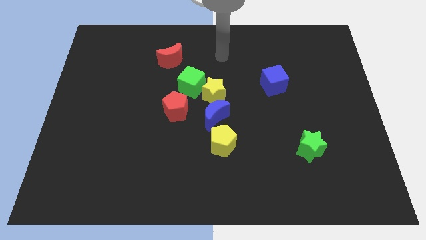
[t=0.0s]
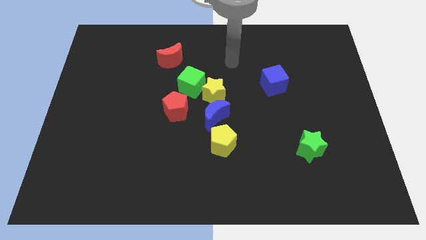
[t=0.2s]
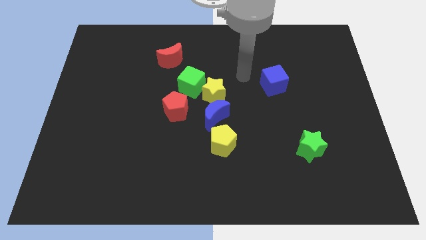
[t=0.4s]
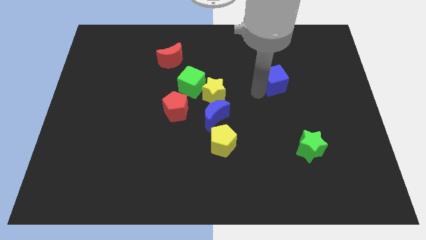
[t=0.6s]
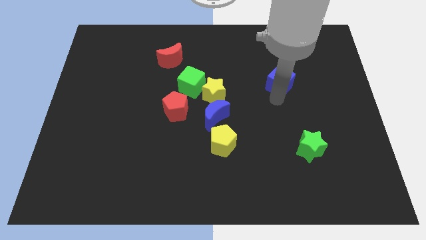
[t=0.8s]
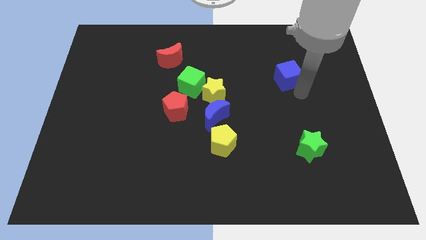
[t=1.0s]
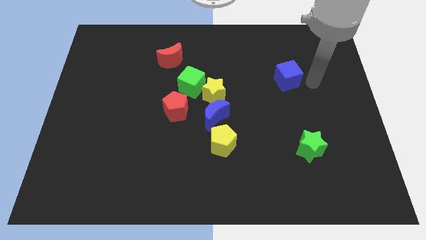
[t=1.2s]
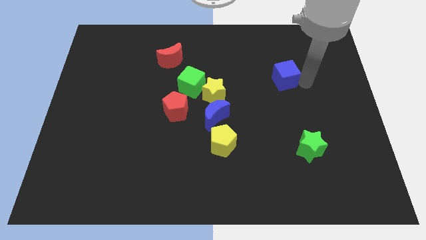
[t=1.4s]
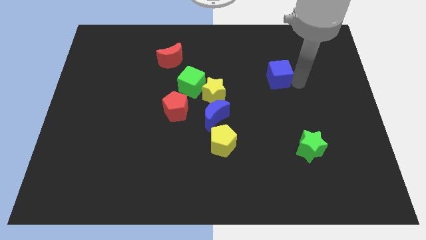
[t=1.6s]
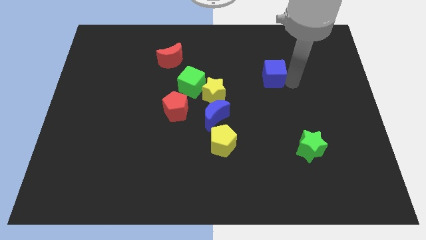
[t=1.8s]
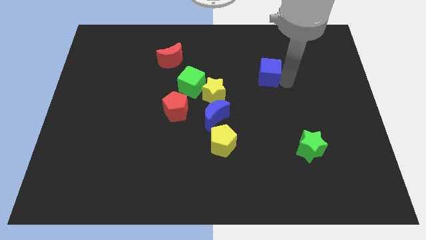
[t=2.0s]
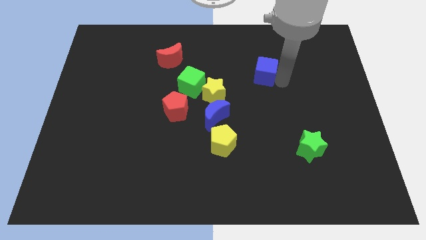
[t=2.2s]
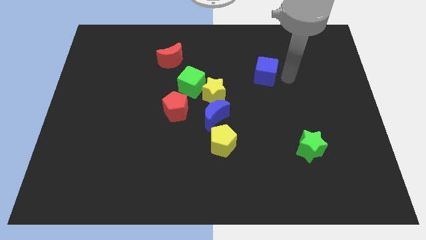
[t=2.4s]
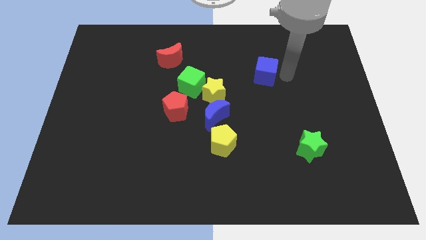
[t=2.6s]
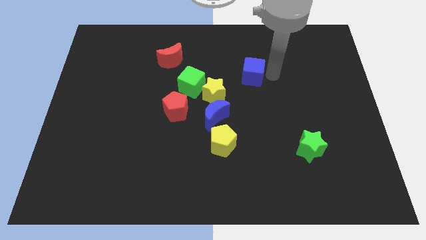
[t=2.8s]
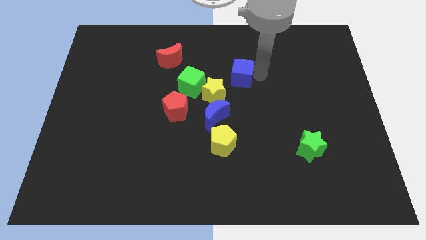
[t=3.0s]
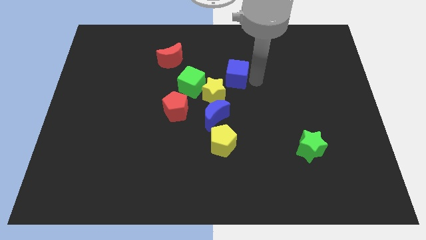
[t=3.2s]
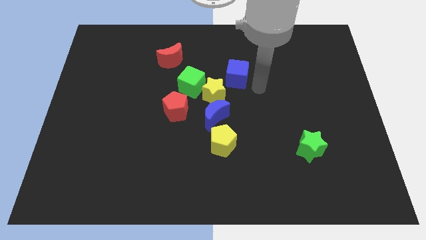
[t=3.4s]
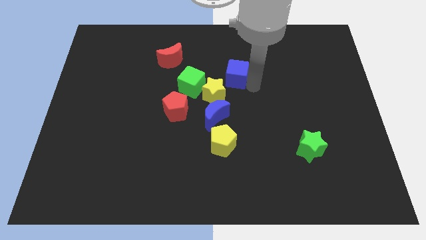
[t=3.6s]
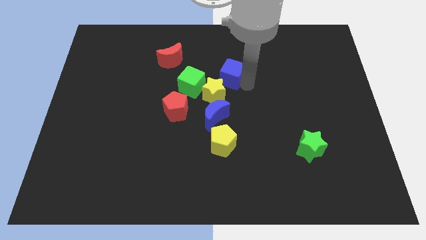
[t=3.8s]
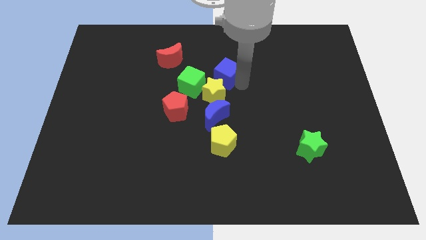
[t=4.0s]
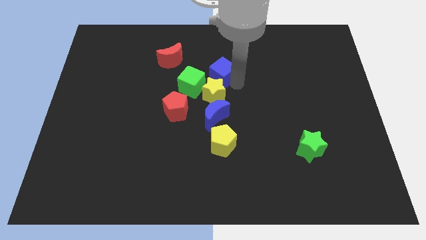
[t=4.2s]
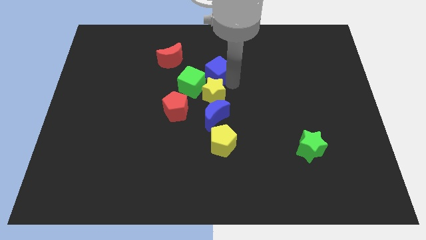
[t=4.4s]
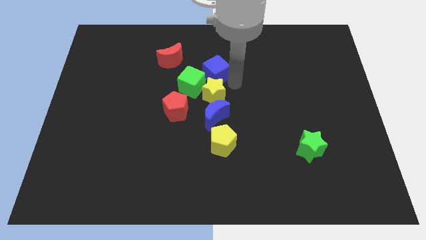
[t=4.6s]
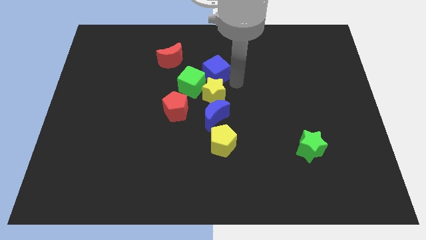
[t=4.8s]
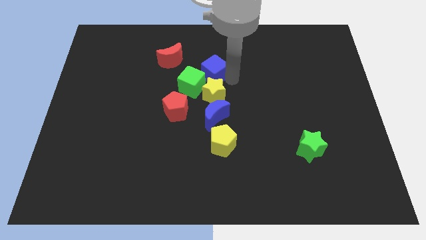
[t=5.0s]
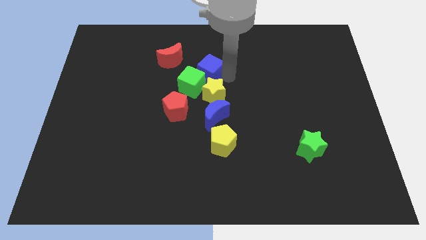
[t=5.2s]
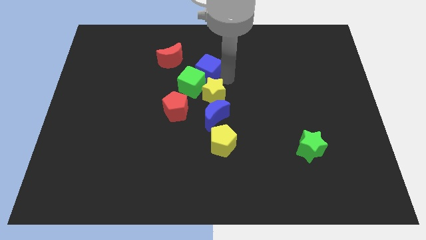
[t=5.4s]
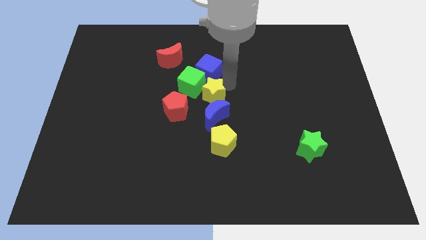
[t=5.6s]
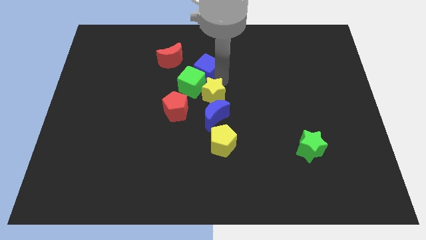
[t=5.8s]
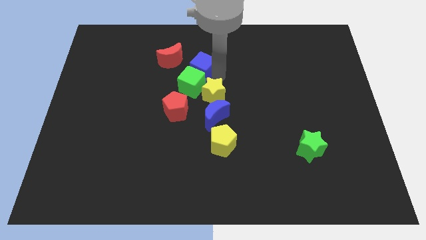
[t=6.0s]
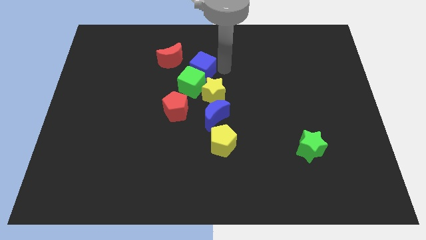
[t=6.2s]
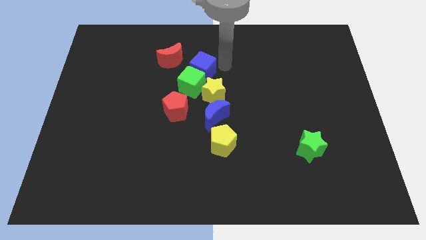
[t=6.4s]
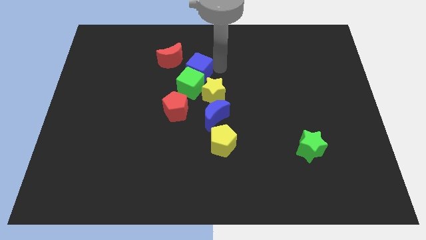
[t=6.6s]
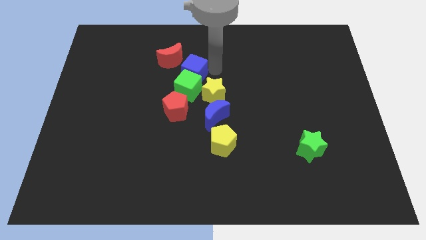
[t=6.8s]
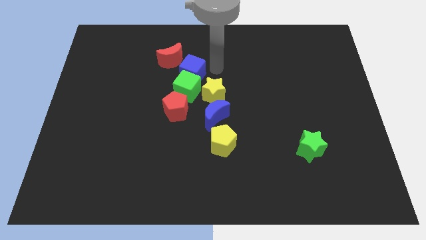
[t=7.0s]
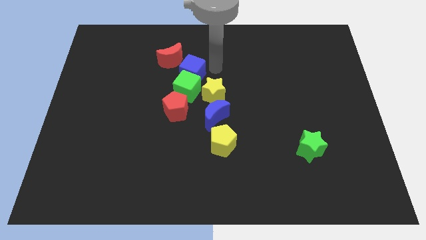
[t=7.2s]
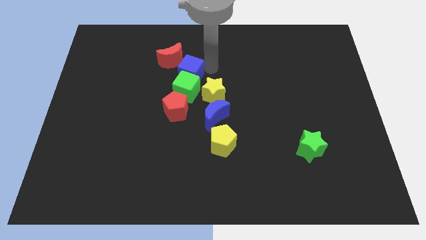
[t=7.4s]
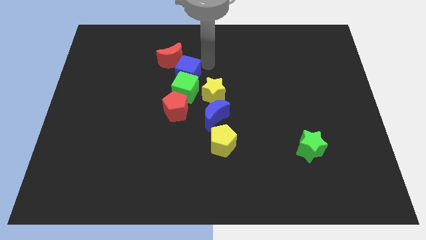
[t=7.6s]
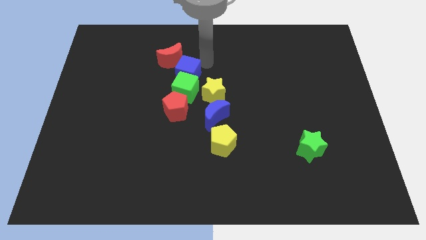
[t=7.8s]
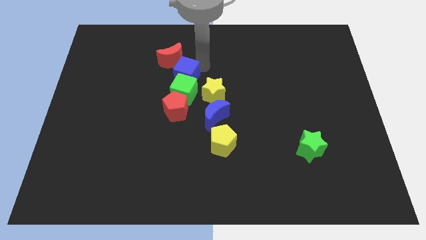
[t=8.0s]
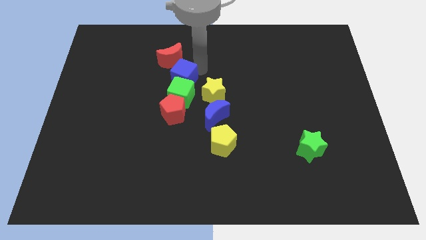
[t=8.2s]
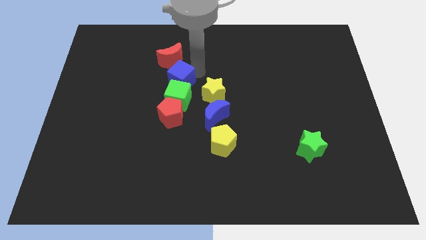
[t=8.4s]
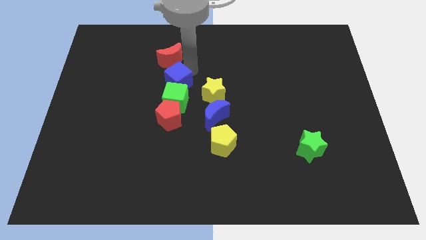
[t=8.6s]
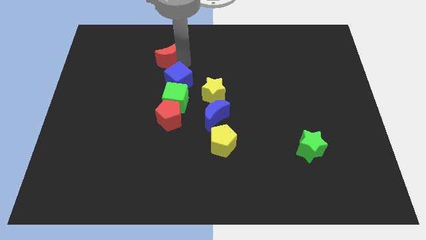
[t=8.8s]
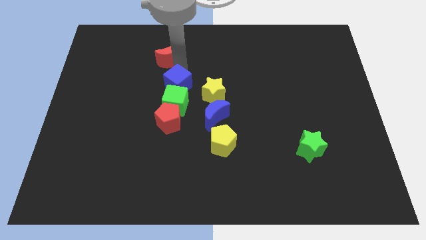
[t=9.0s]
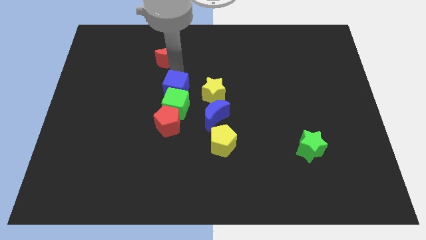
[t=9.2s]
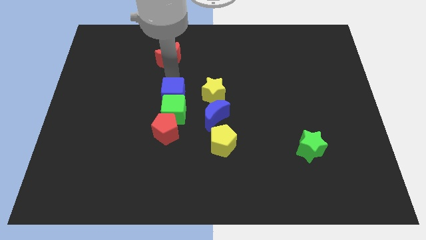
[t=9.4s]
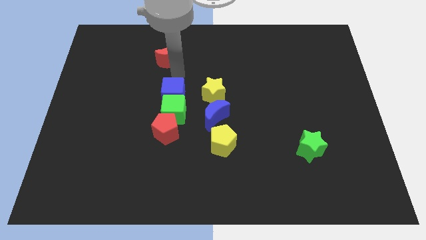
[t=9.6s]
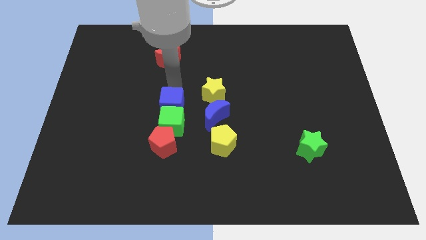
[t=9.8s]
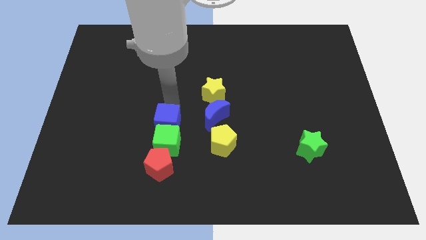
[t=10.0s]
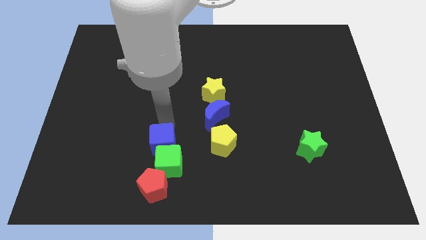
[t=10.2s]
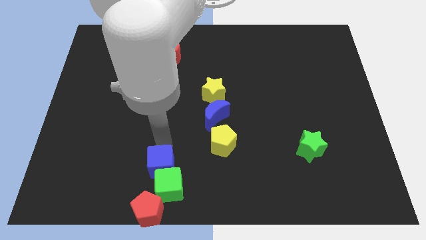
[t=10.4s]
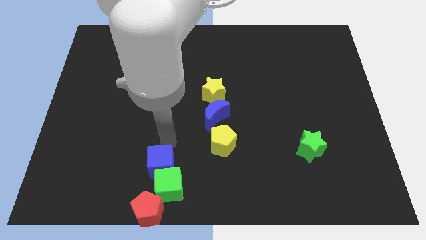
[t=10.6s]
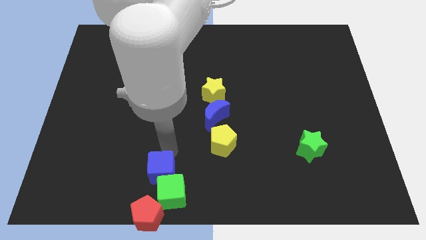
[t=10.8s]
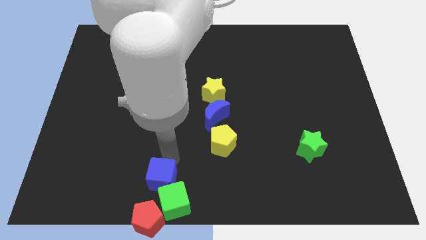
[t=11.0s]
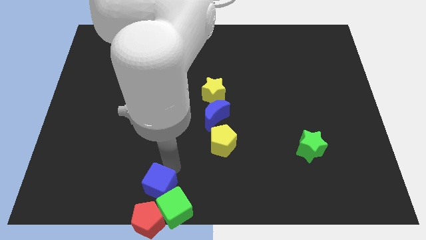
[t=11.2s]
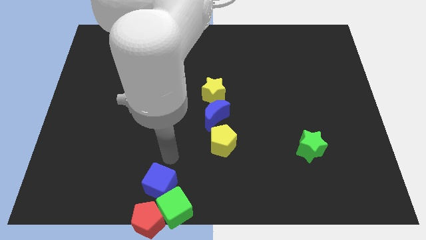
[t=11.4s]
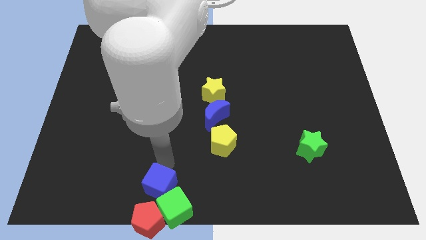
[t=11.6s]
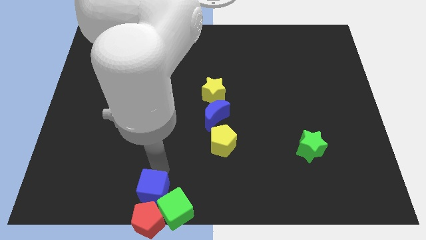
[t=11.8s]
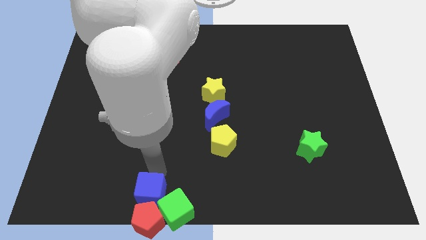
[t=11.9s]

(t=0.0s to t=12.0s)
push the blue cube towards the red pentagon

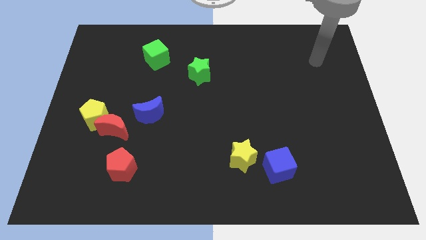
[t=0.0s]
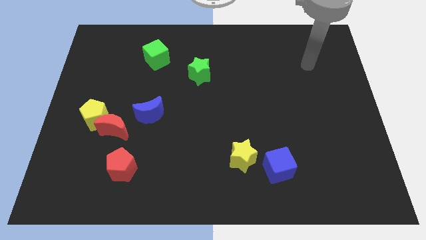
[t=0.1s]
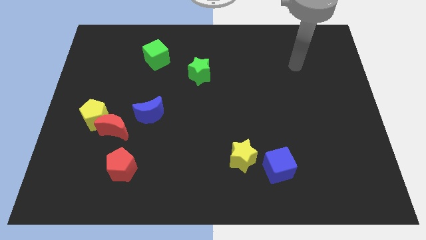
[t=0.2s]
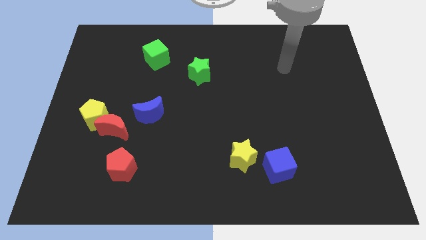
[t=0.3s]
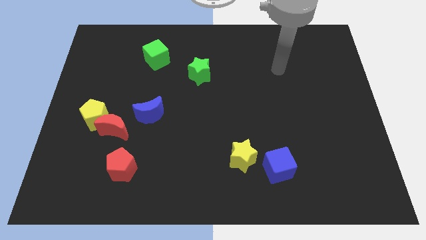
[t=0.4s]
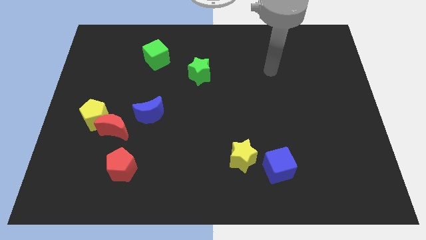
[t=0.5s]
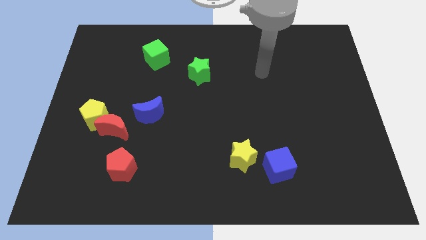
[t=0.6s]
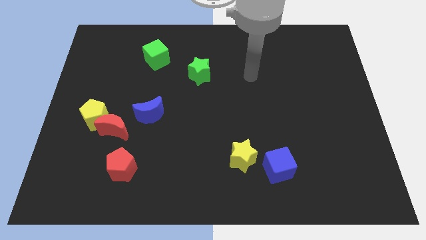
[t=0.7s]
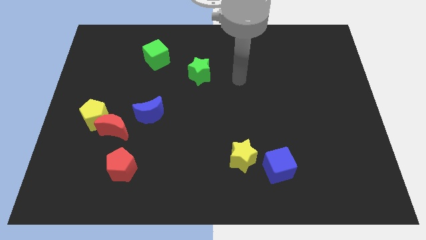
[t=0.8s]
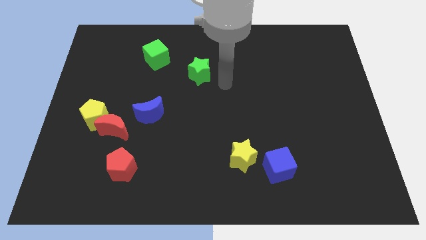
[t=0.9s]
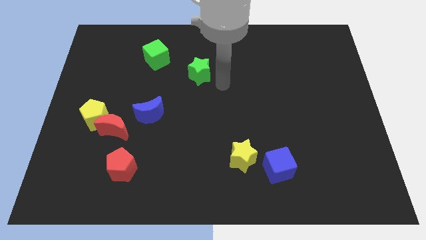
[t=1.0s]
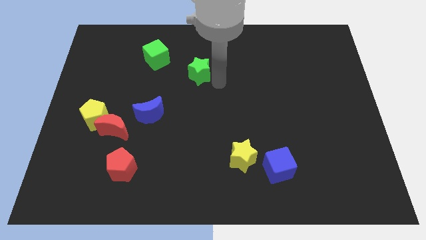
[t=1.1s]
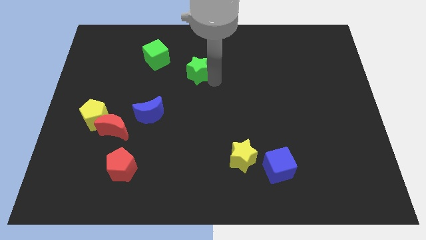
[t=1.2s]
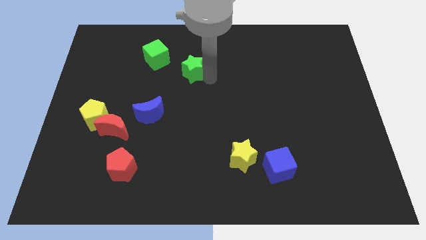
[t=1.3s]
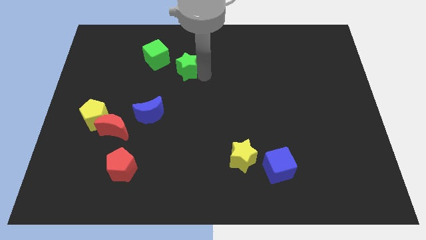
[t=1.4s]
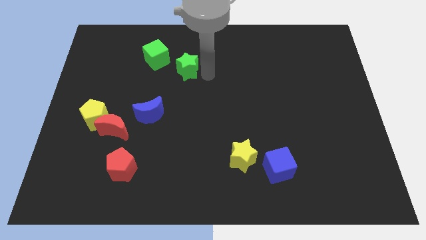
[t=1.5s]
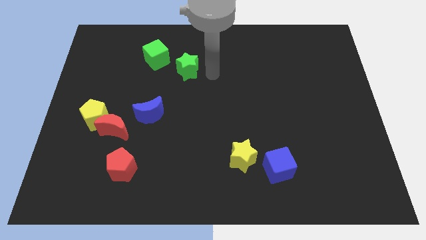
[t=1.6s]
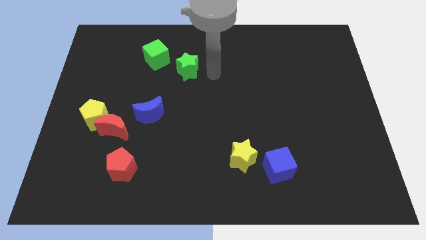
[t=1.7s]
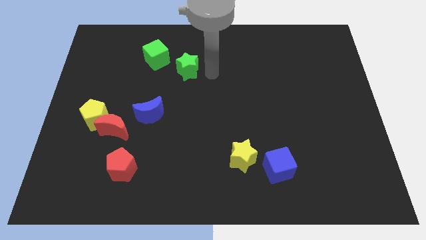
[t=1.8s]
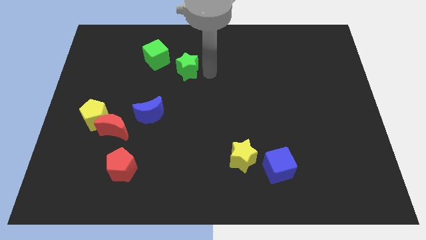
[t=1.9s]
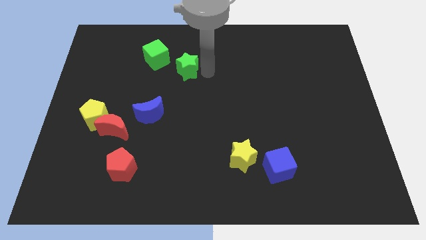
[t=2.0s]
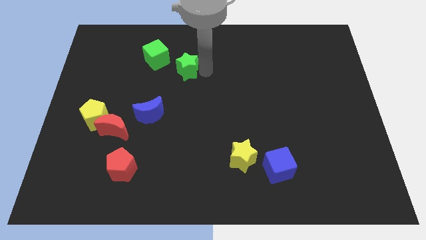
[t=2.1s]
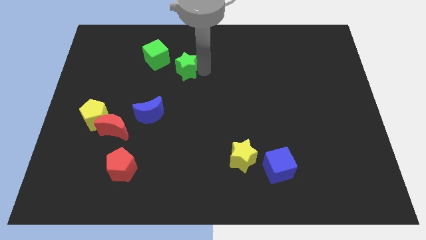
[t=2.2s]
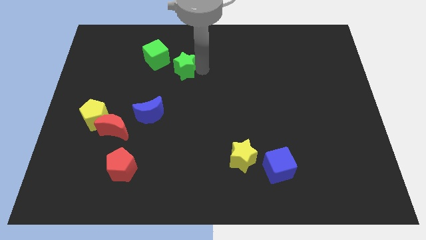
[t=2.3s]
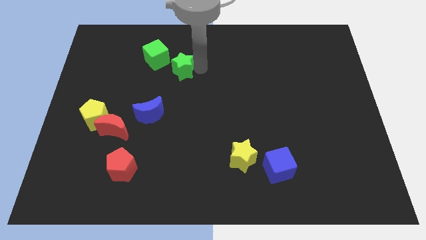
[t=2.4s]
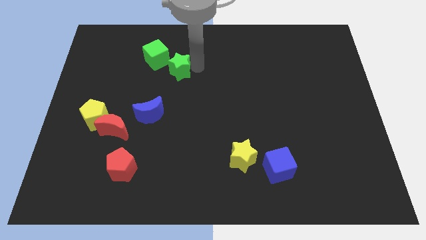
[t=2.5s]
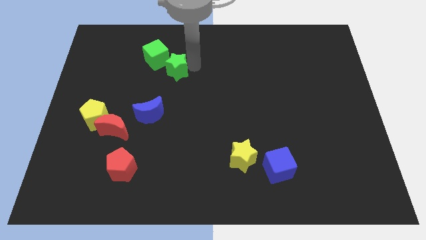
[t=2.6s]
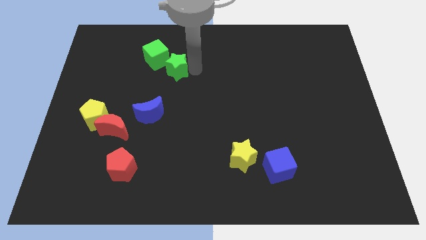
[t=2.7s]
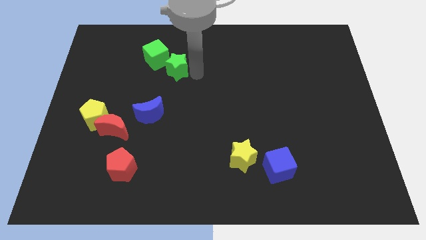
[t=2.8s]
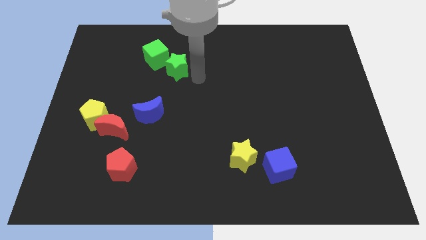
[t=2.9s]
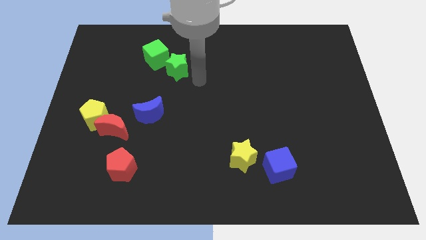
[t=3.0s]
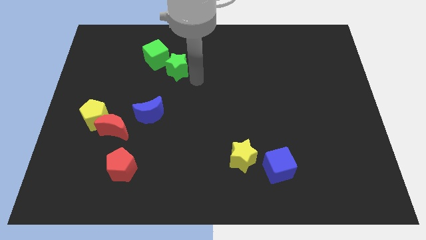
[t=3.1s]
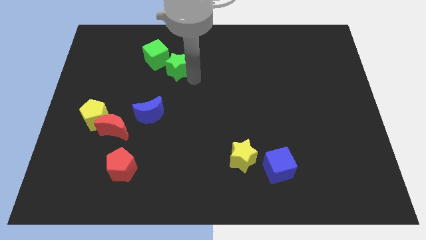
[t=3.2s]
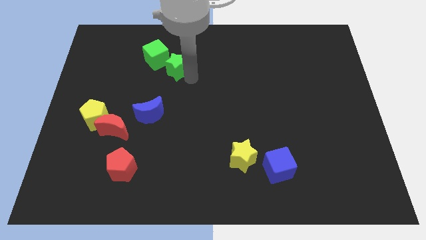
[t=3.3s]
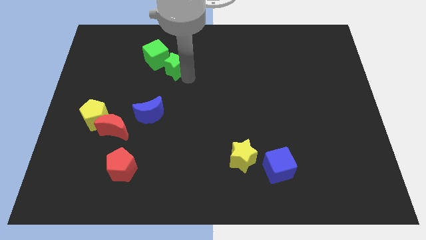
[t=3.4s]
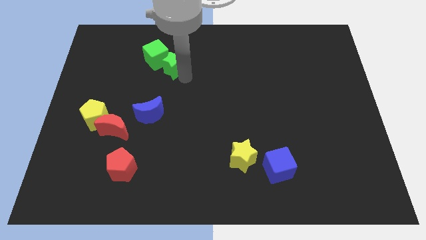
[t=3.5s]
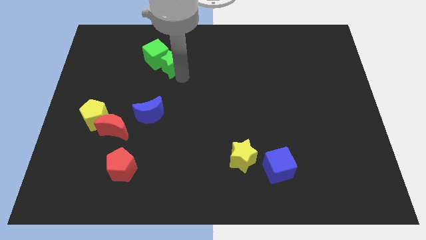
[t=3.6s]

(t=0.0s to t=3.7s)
push the green star to the green cube
